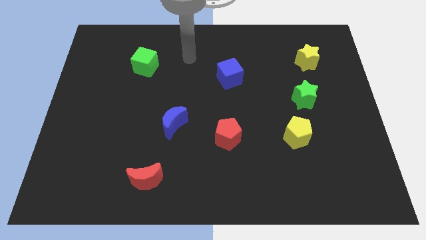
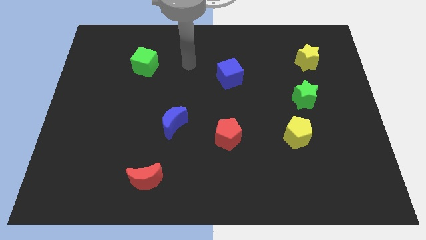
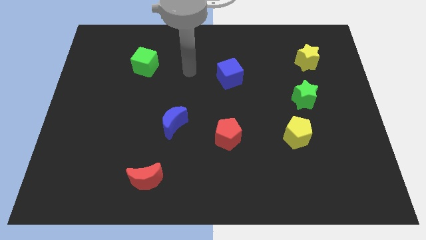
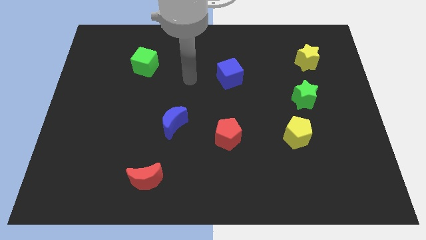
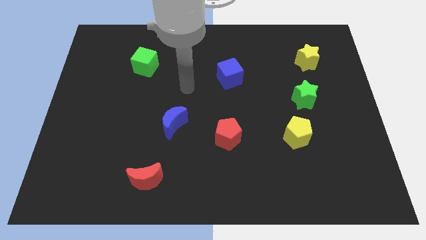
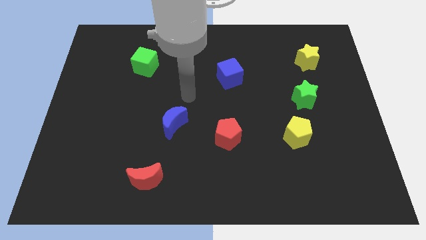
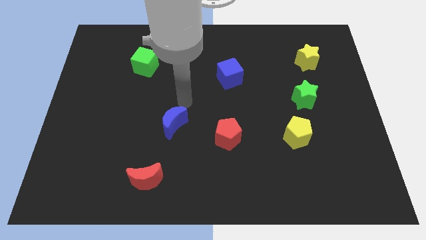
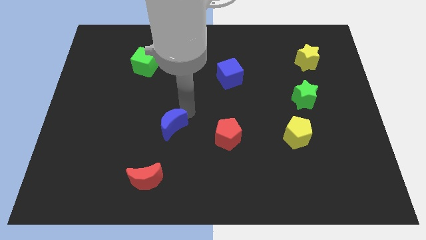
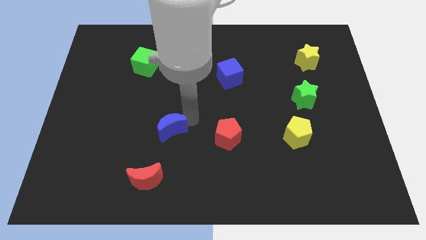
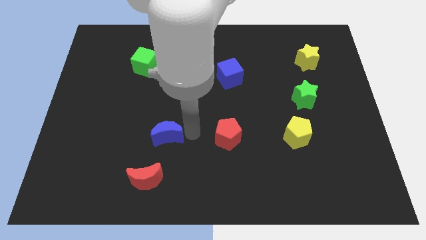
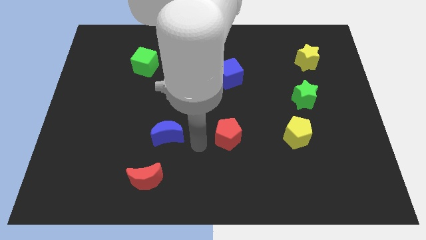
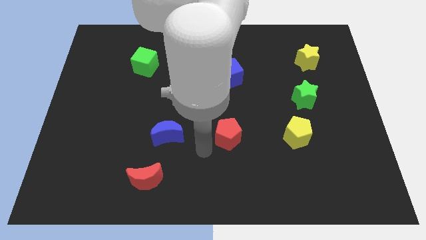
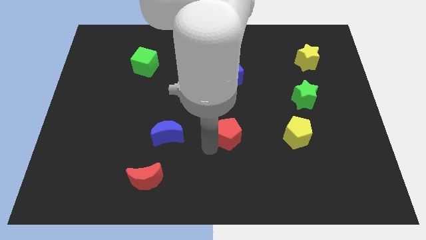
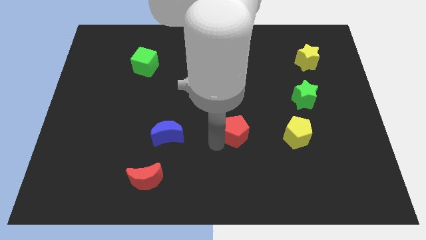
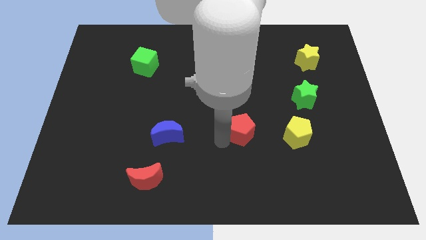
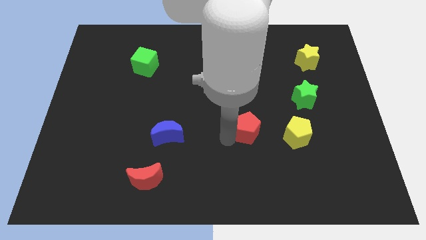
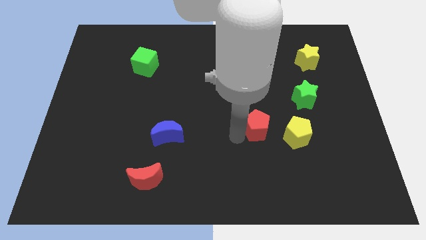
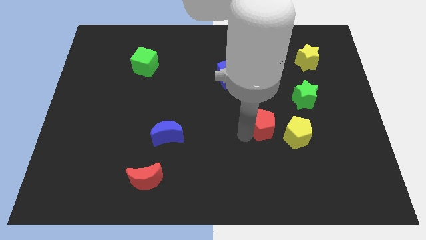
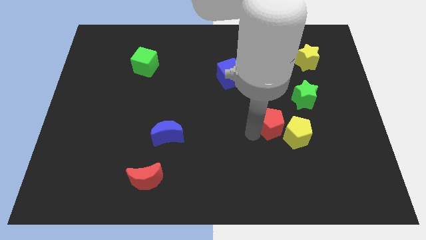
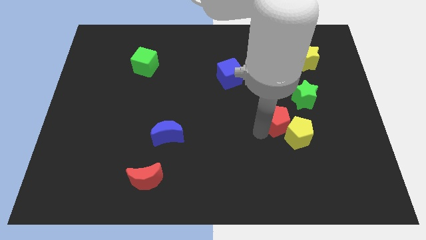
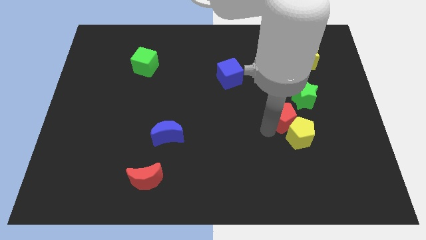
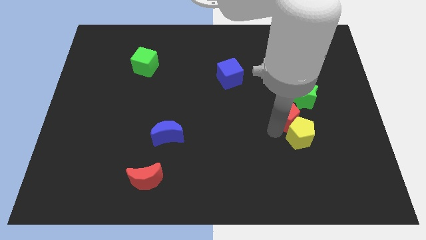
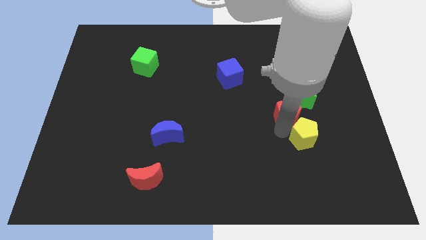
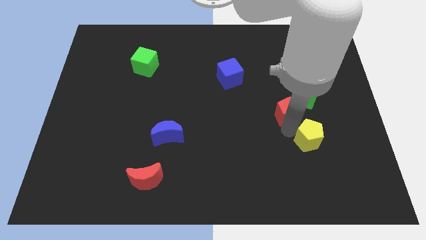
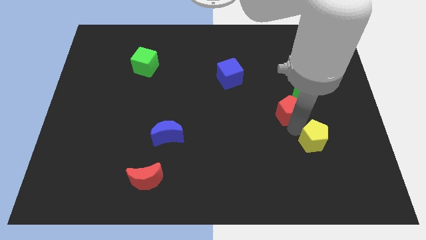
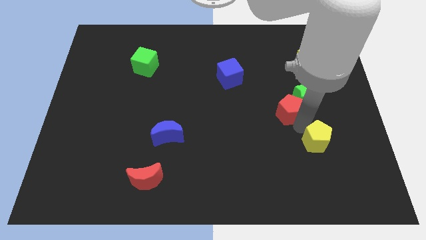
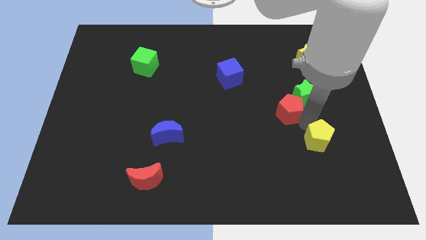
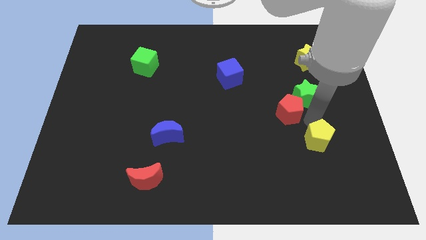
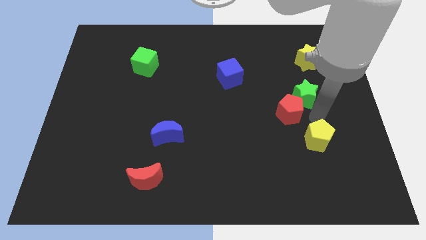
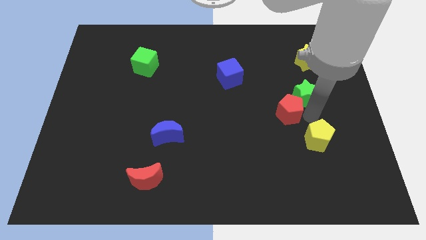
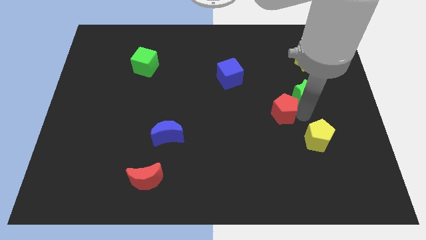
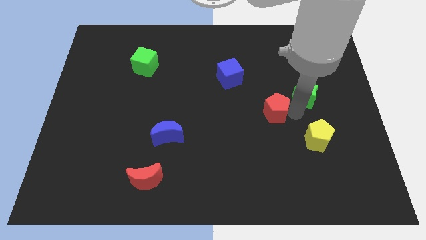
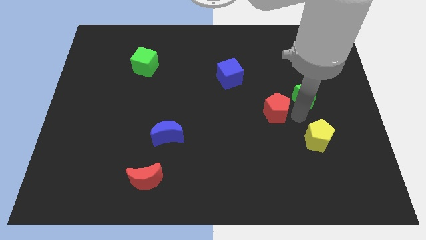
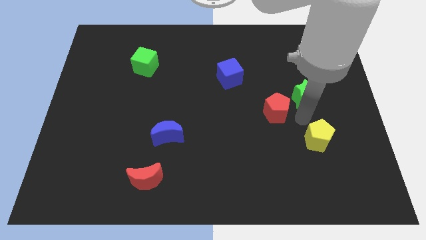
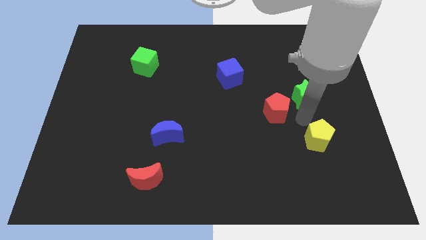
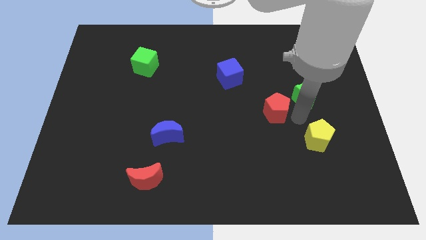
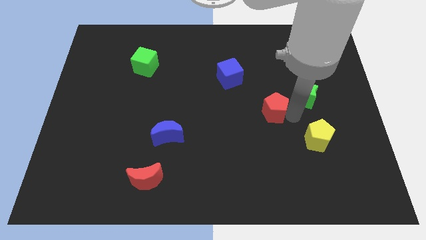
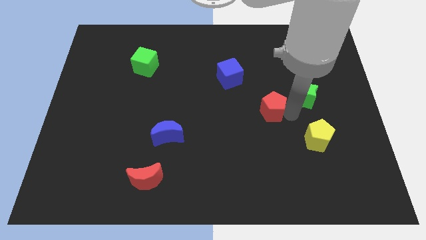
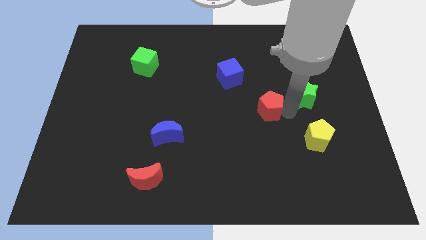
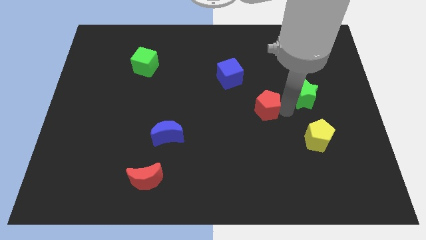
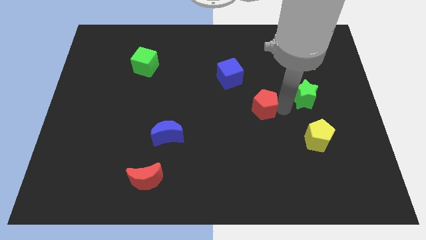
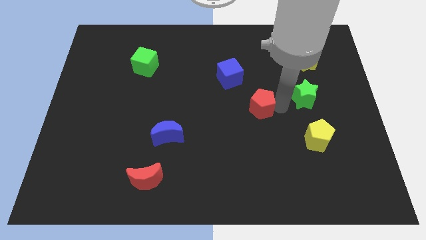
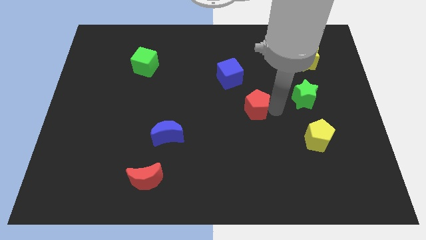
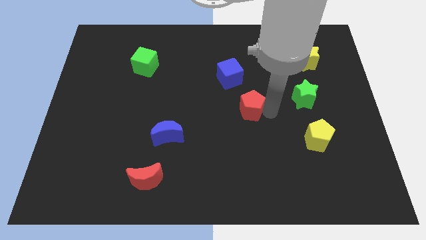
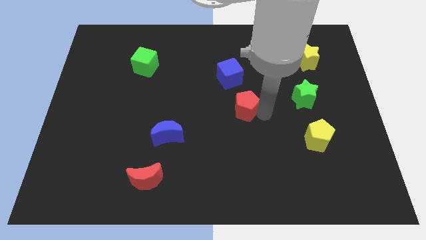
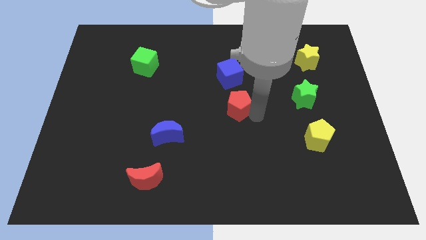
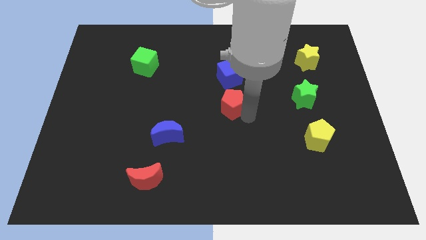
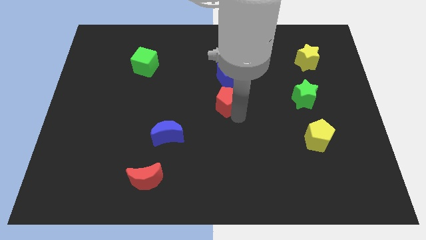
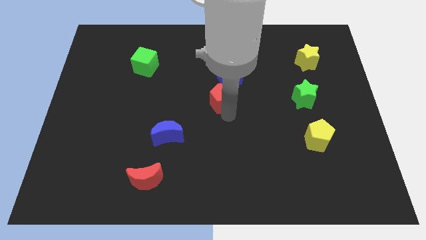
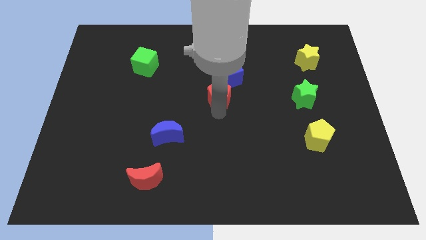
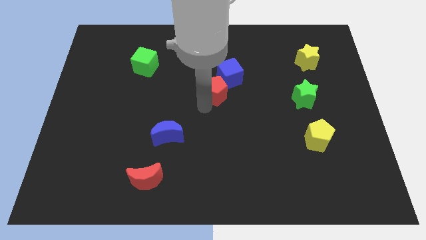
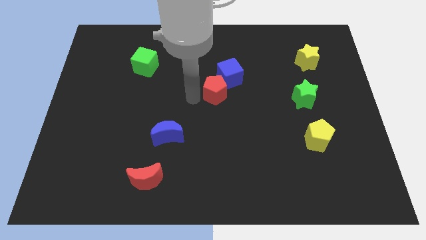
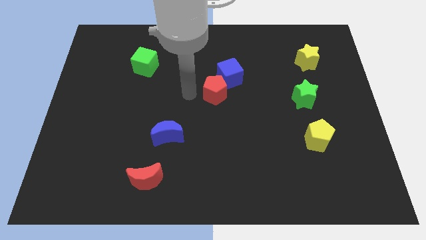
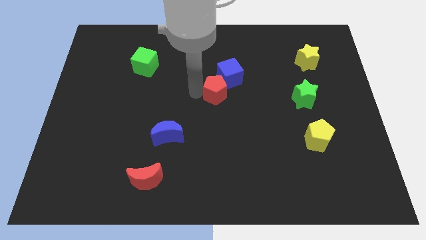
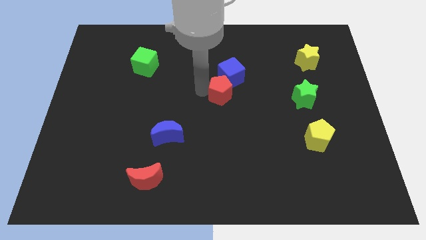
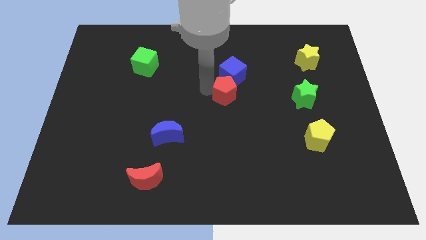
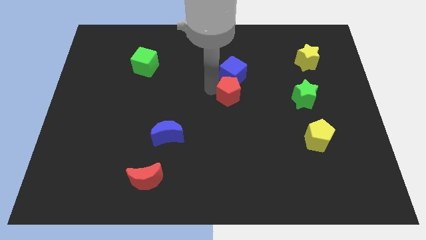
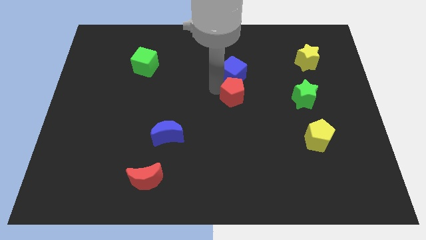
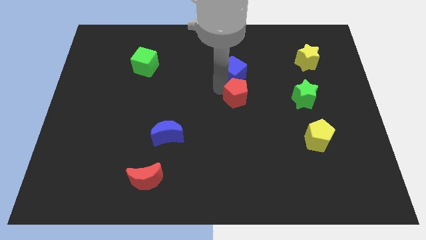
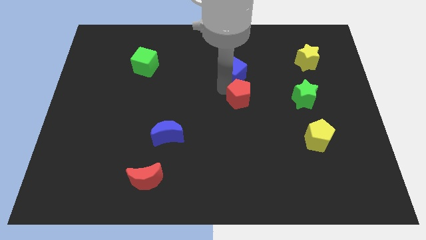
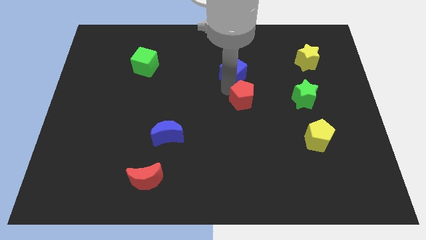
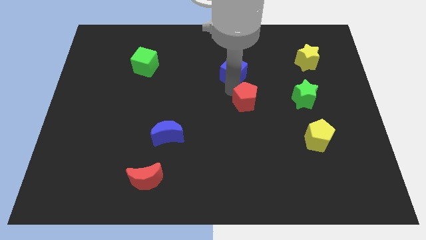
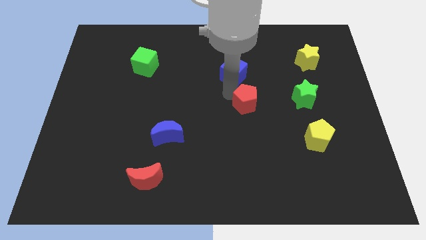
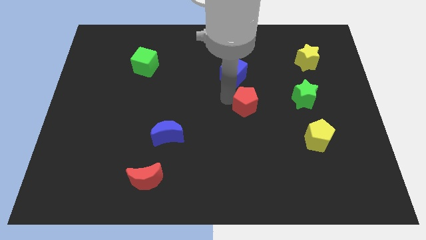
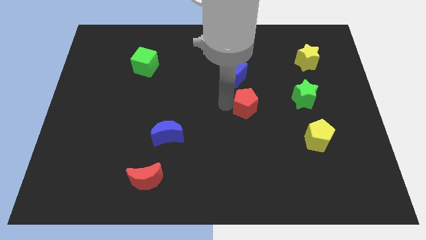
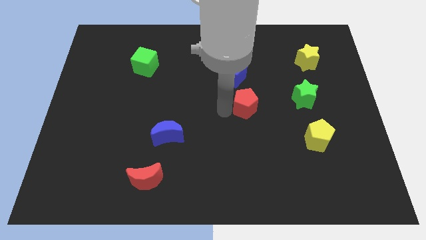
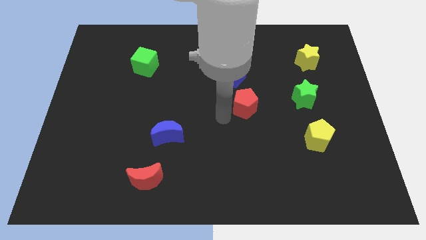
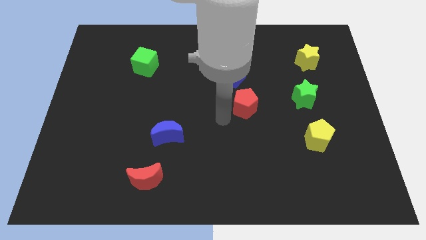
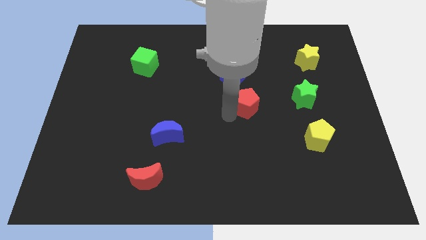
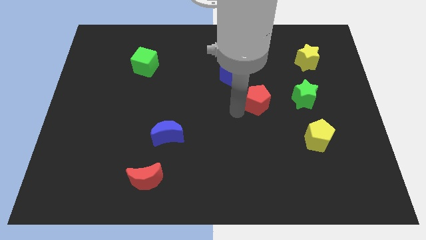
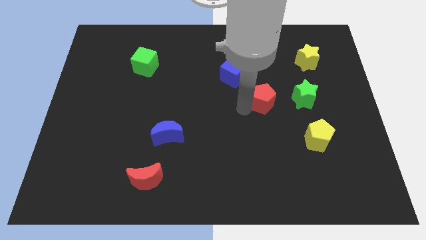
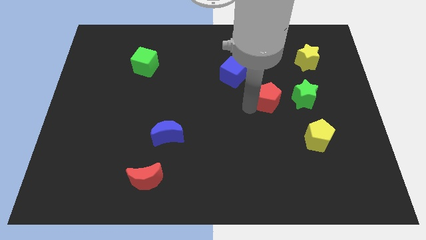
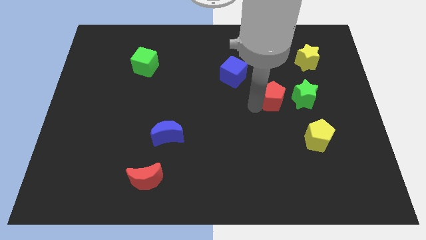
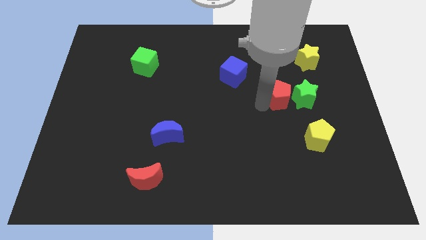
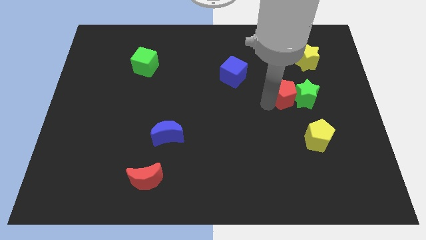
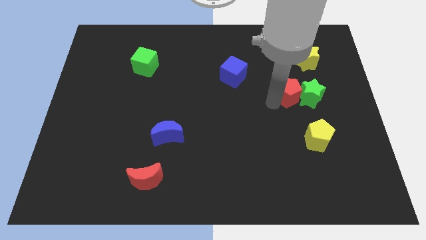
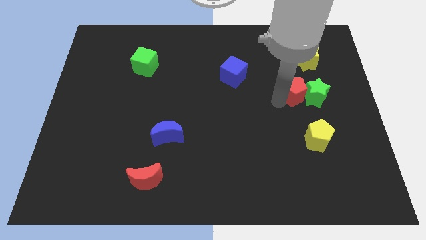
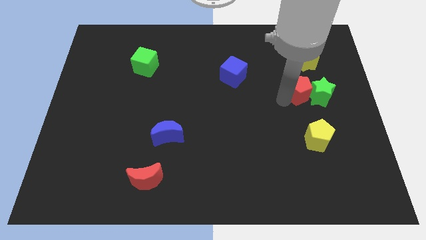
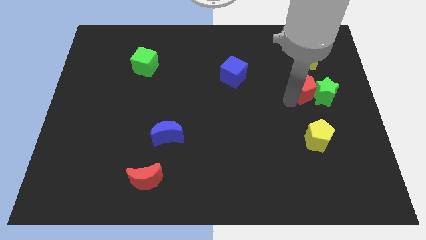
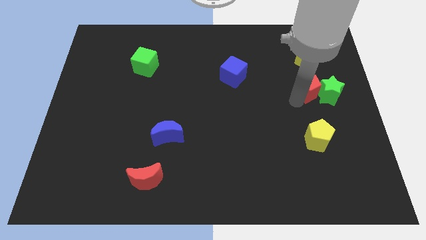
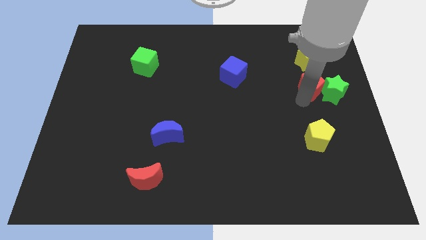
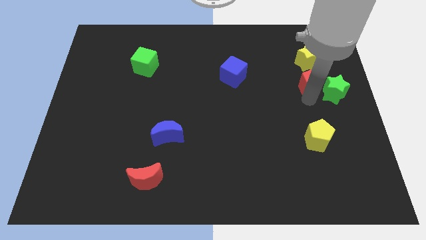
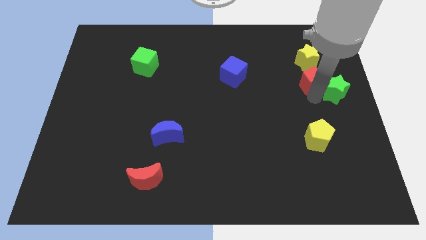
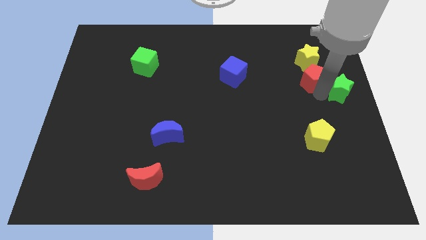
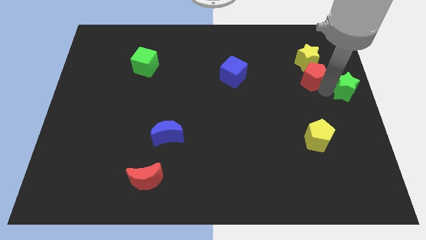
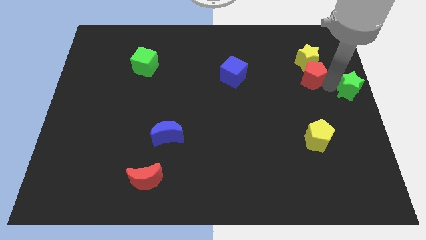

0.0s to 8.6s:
move the red pentagon to the yellow star

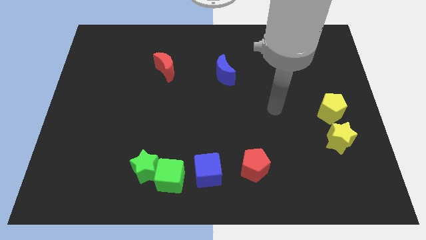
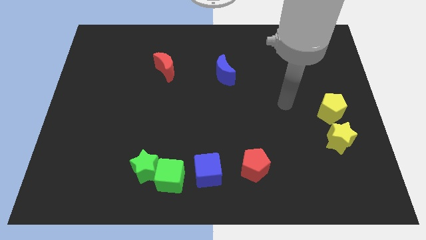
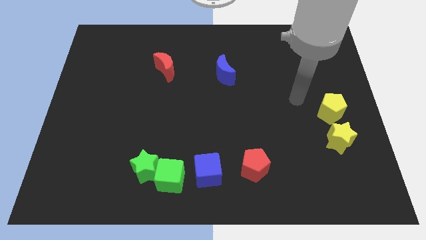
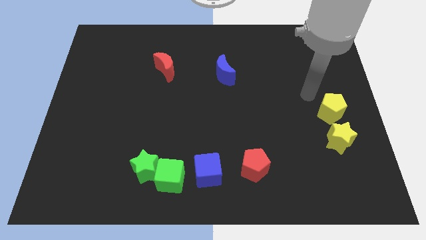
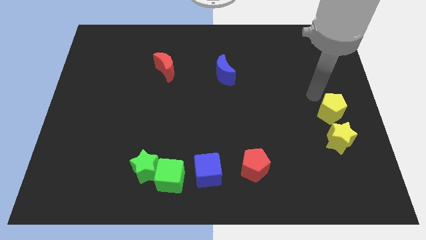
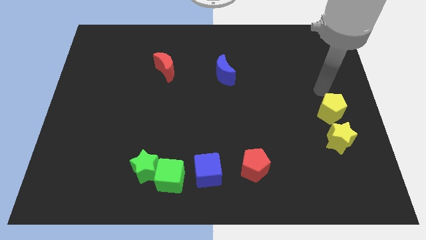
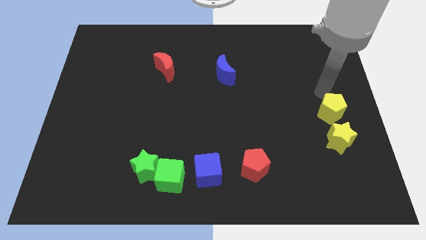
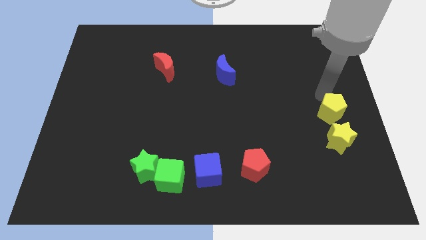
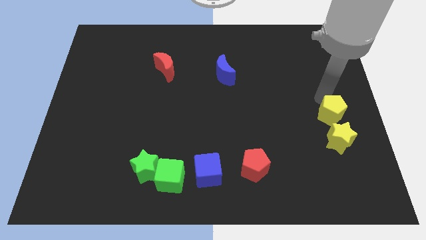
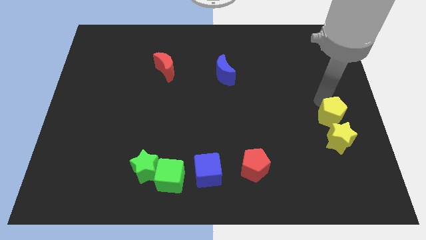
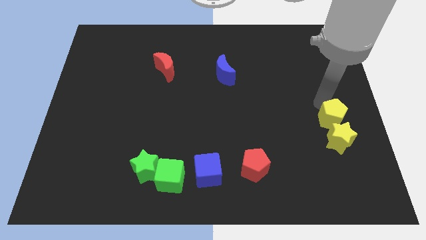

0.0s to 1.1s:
put the yellow pentagon to the yellow star
